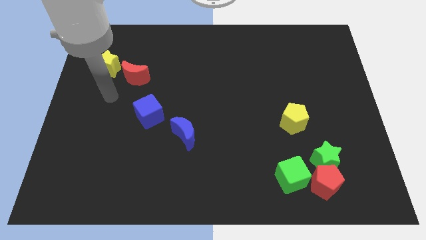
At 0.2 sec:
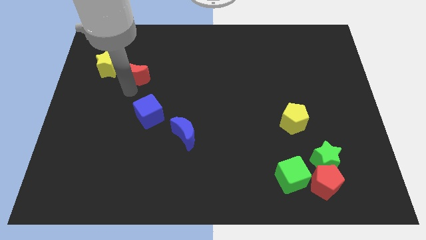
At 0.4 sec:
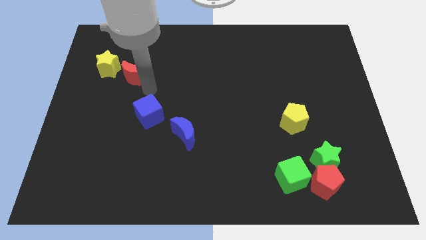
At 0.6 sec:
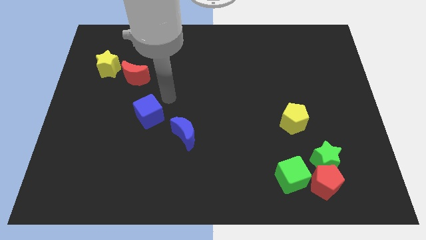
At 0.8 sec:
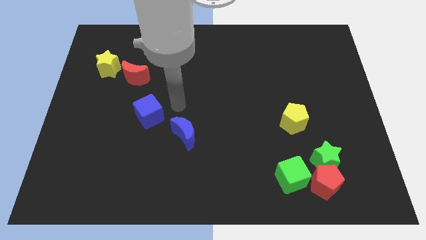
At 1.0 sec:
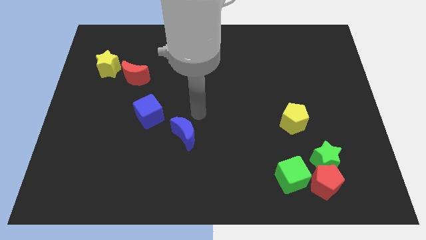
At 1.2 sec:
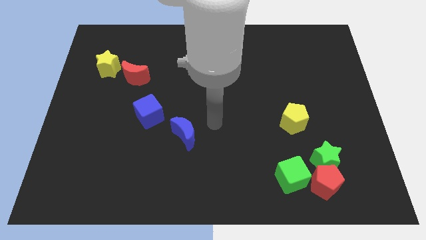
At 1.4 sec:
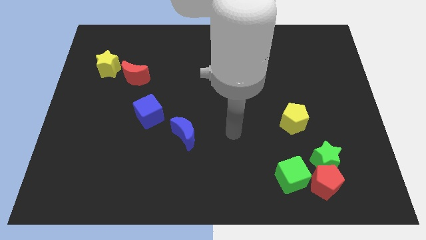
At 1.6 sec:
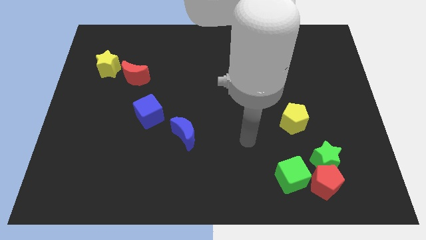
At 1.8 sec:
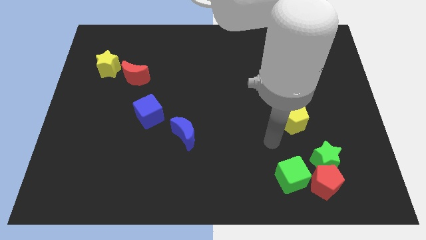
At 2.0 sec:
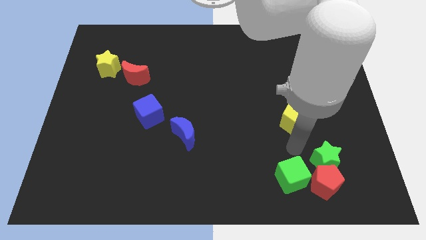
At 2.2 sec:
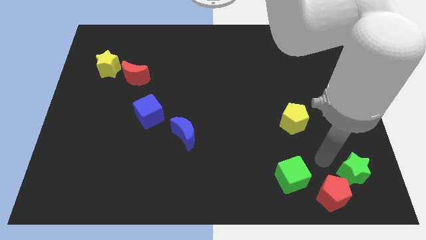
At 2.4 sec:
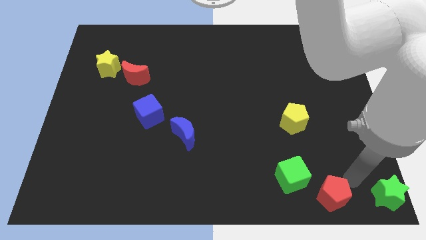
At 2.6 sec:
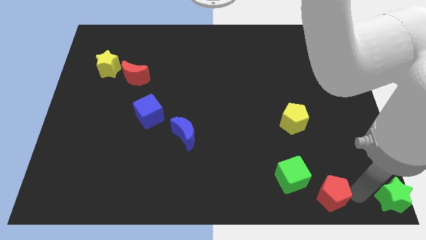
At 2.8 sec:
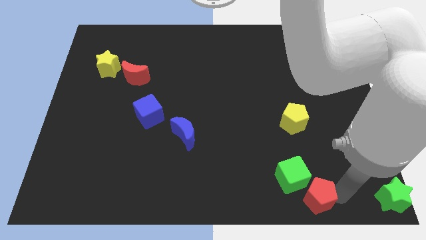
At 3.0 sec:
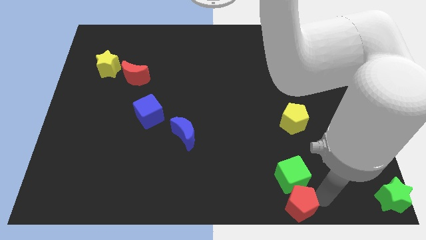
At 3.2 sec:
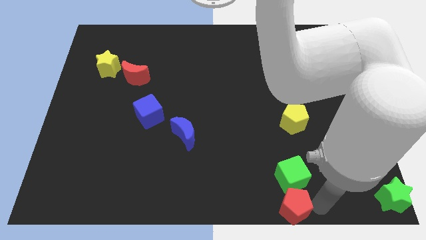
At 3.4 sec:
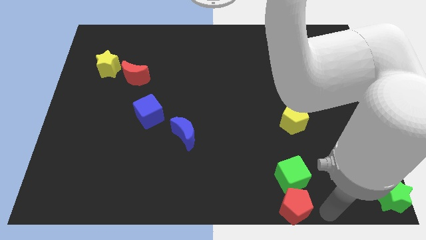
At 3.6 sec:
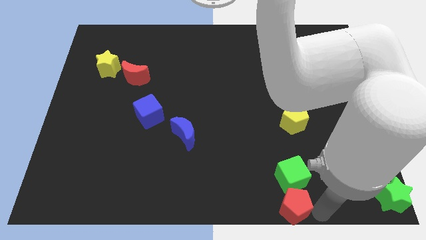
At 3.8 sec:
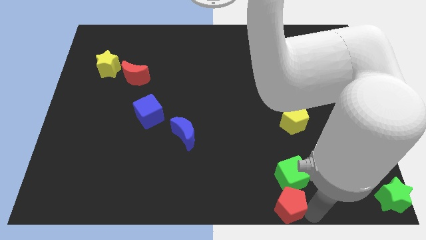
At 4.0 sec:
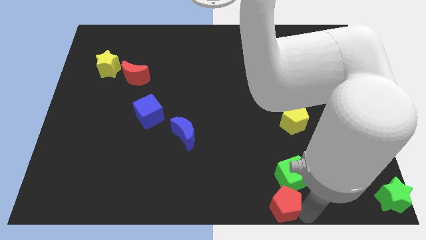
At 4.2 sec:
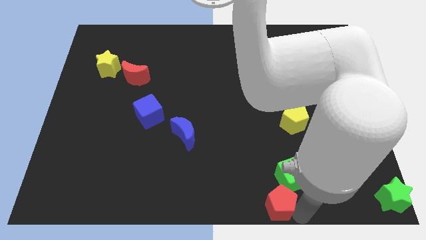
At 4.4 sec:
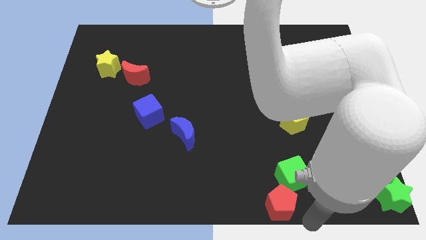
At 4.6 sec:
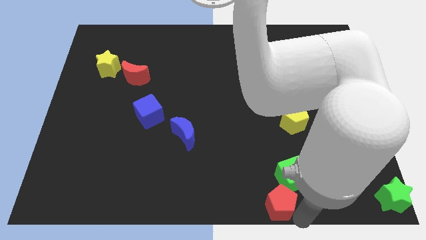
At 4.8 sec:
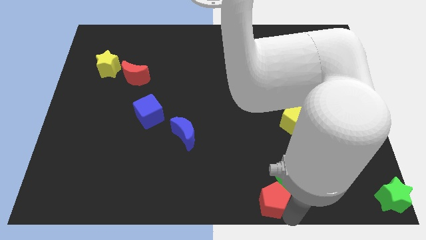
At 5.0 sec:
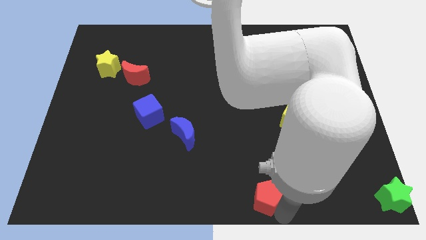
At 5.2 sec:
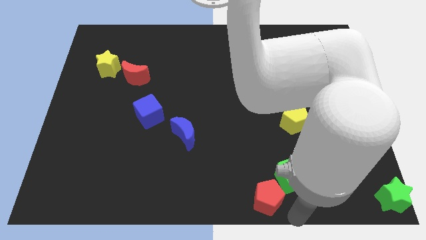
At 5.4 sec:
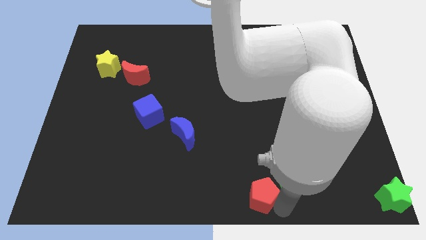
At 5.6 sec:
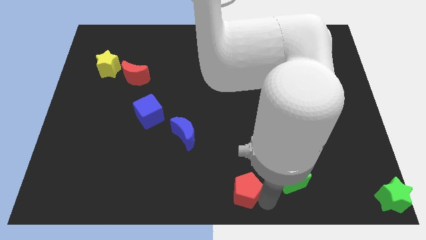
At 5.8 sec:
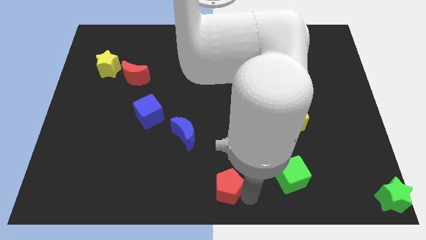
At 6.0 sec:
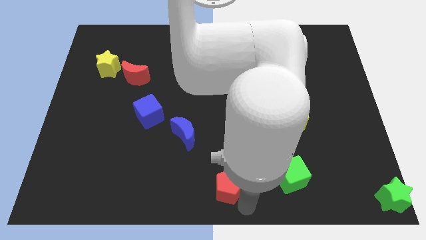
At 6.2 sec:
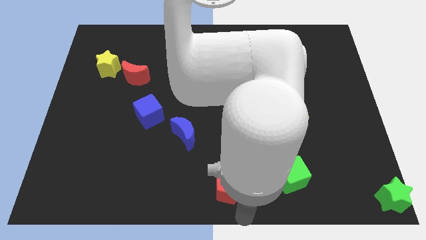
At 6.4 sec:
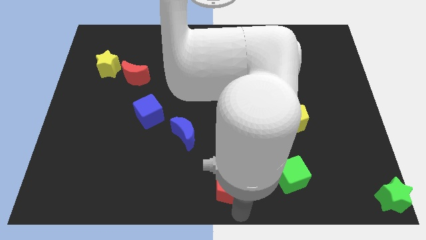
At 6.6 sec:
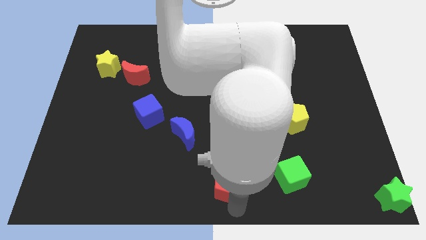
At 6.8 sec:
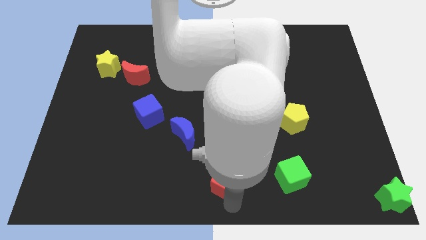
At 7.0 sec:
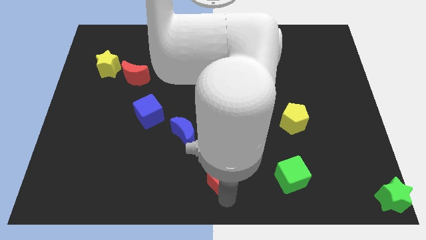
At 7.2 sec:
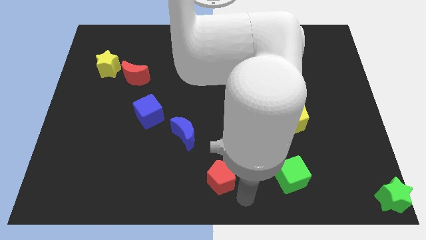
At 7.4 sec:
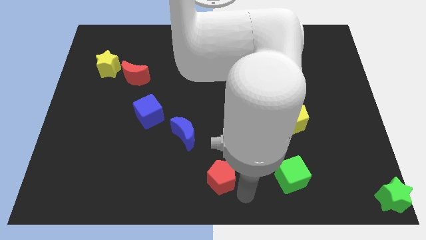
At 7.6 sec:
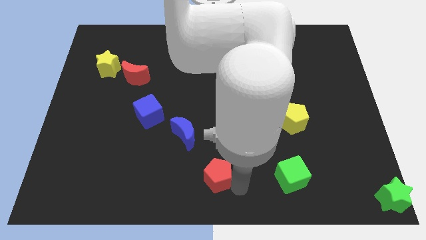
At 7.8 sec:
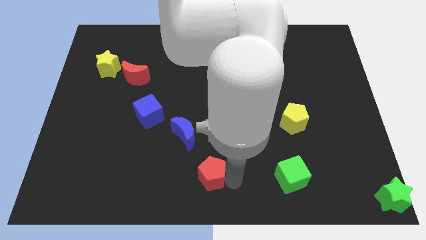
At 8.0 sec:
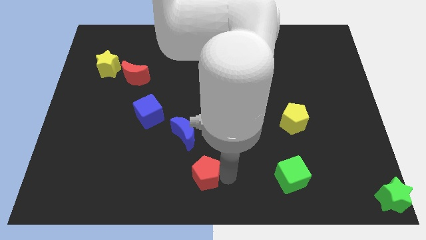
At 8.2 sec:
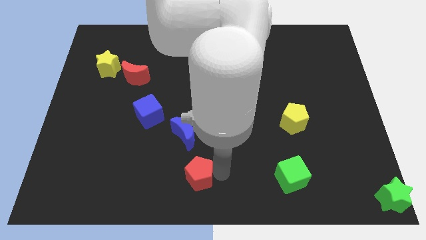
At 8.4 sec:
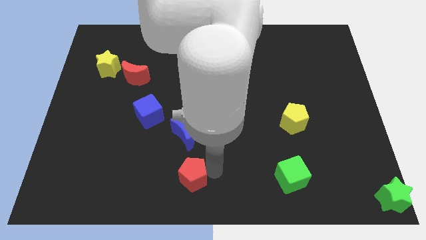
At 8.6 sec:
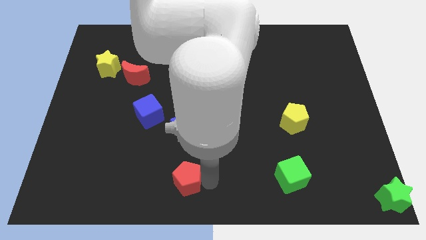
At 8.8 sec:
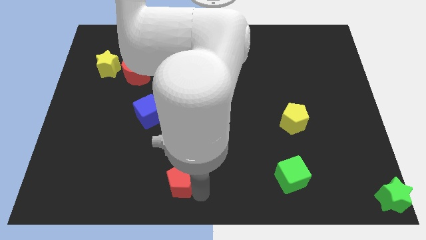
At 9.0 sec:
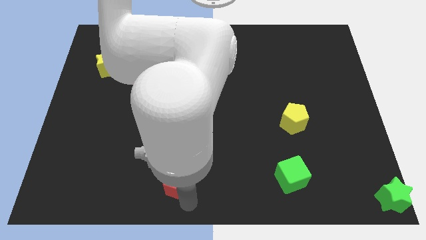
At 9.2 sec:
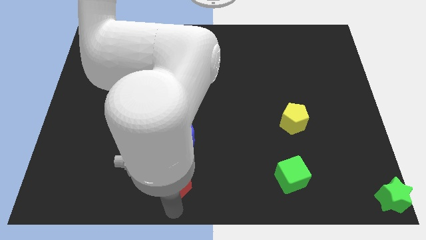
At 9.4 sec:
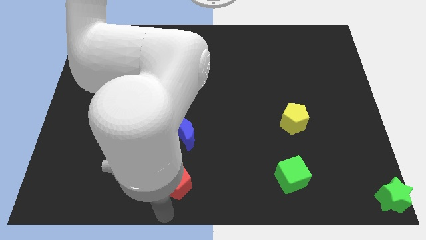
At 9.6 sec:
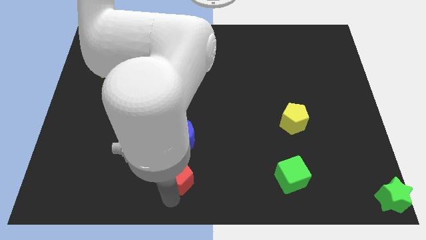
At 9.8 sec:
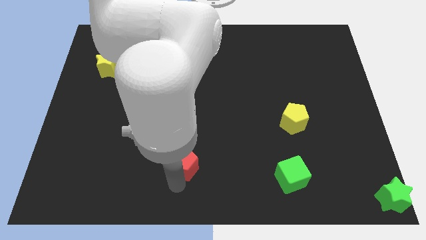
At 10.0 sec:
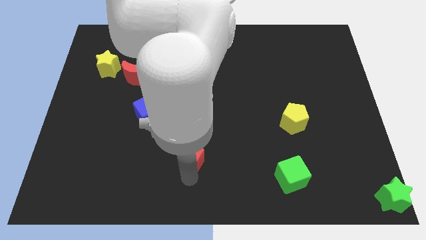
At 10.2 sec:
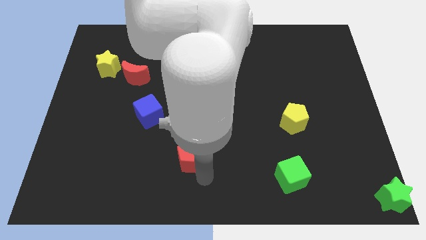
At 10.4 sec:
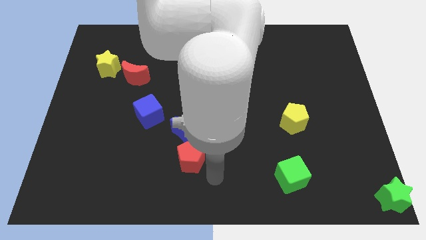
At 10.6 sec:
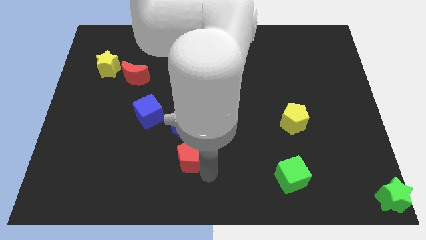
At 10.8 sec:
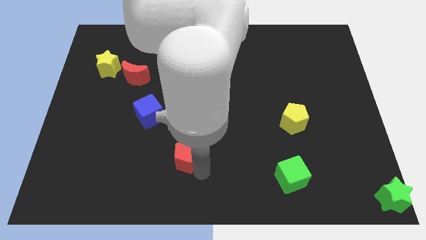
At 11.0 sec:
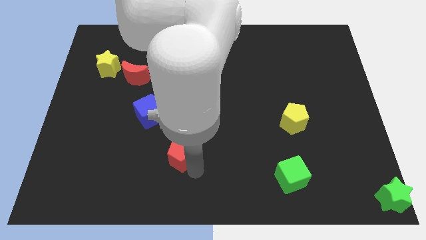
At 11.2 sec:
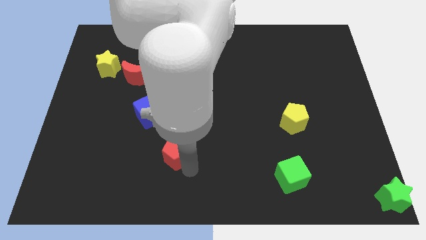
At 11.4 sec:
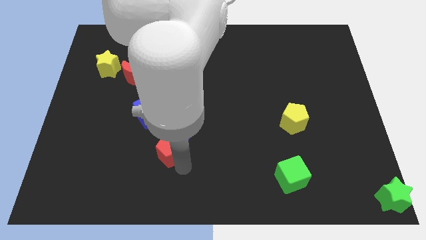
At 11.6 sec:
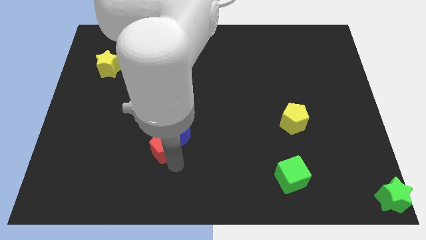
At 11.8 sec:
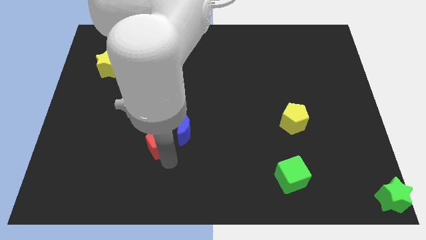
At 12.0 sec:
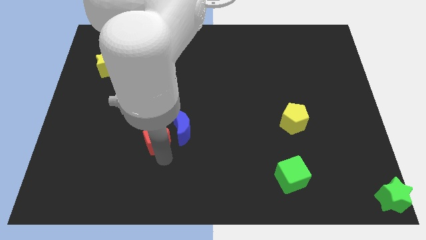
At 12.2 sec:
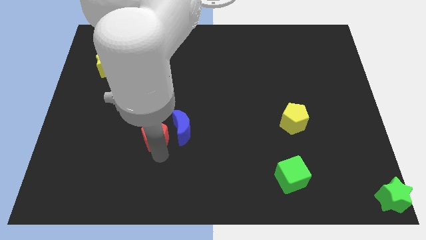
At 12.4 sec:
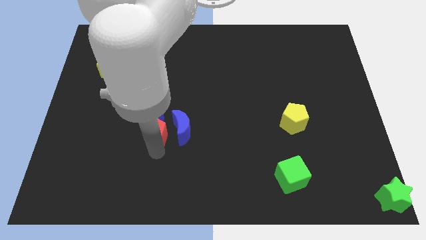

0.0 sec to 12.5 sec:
put the red pentagon to the blue cube

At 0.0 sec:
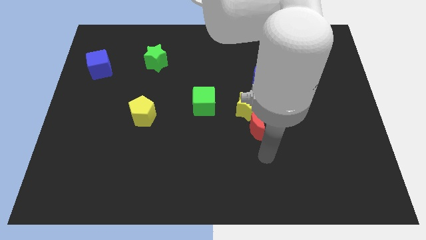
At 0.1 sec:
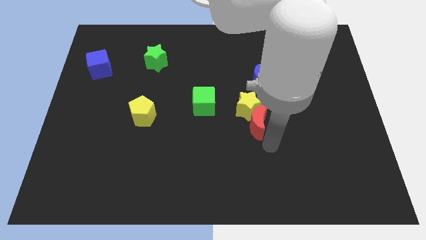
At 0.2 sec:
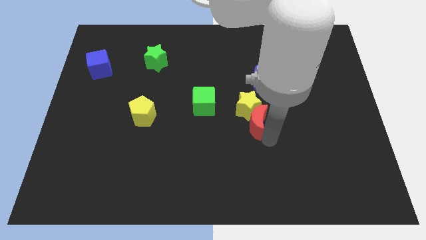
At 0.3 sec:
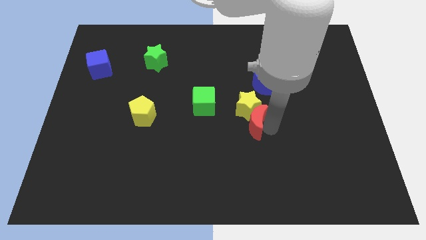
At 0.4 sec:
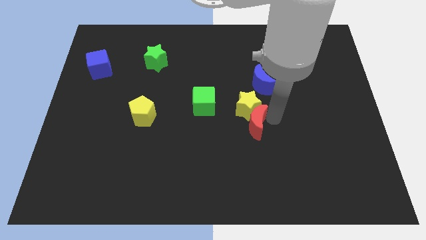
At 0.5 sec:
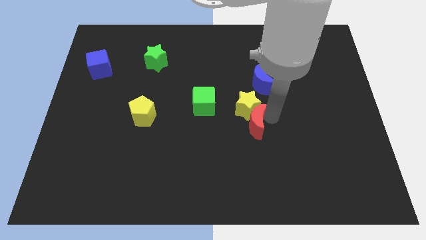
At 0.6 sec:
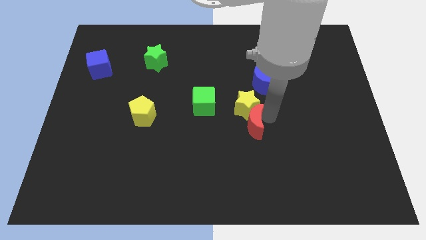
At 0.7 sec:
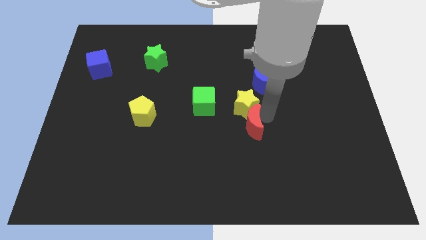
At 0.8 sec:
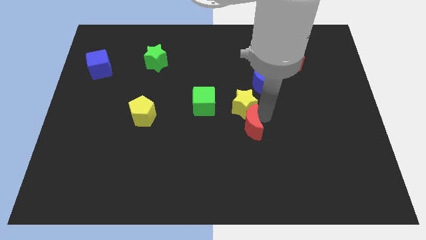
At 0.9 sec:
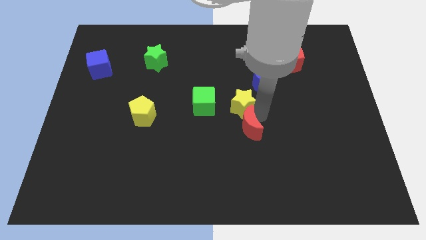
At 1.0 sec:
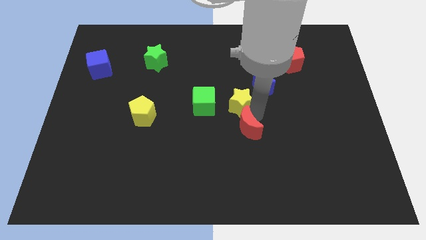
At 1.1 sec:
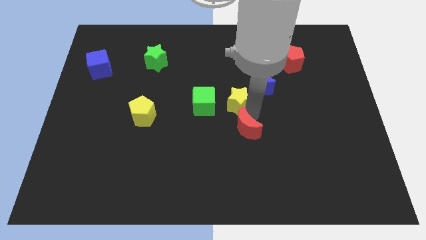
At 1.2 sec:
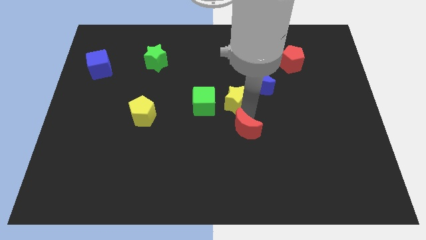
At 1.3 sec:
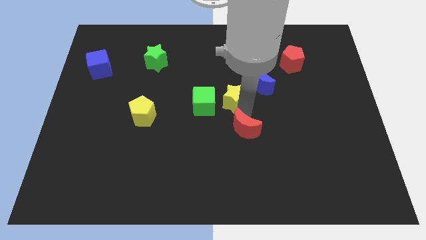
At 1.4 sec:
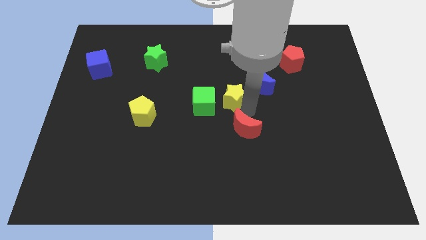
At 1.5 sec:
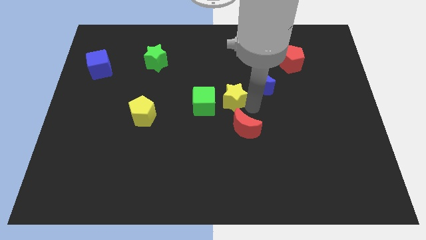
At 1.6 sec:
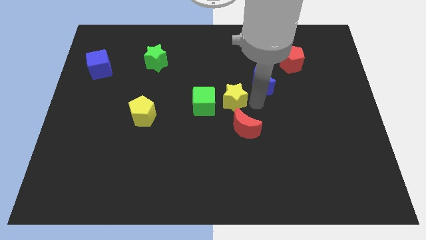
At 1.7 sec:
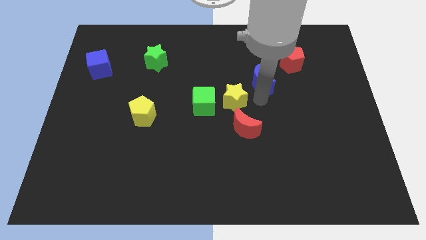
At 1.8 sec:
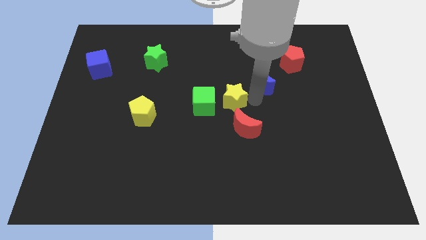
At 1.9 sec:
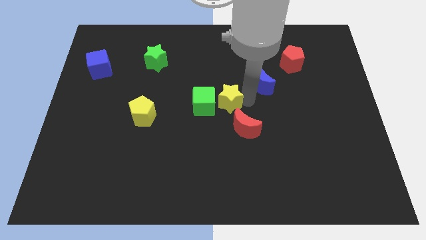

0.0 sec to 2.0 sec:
put the yellow star close to the green cube
